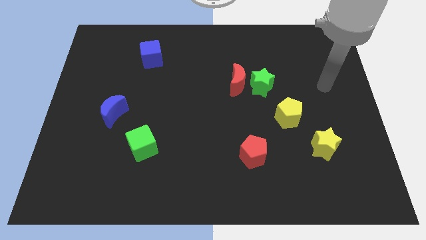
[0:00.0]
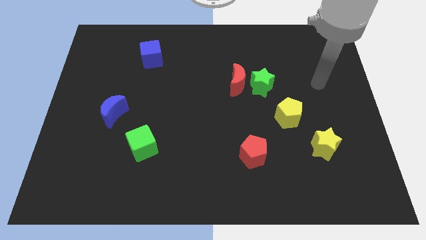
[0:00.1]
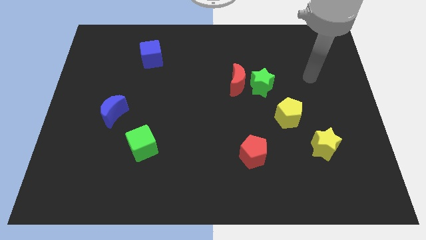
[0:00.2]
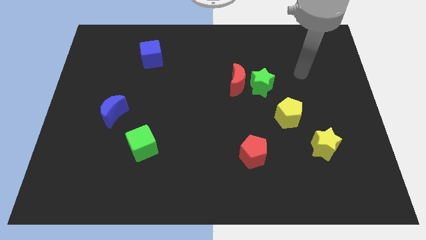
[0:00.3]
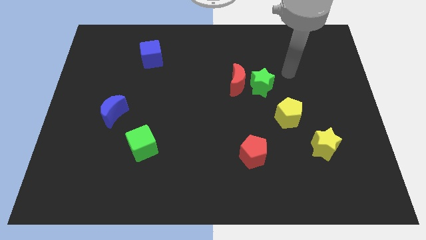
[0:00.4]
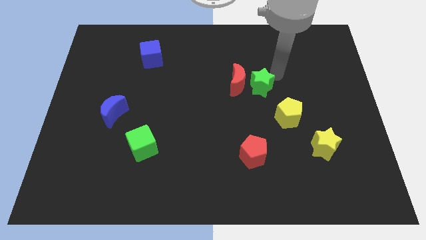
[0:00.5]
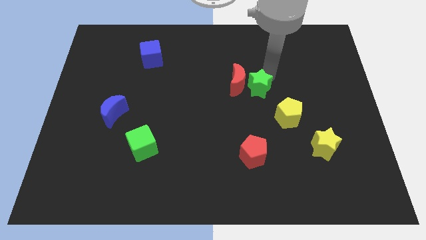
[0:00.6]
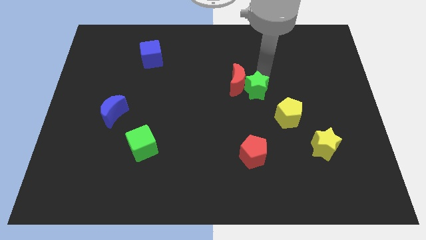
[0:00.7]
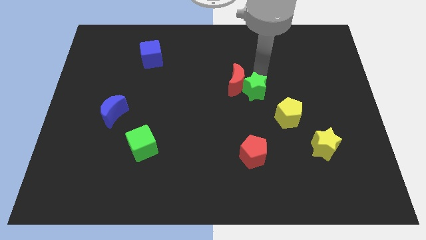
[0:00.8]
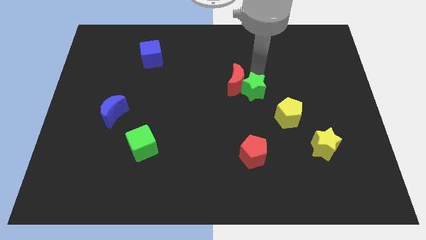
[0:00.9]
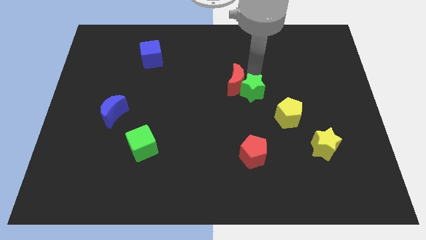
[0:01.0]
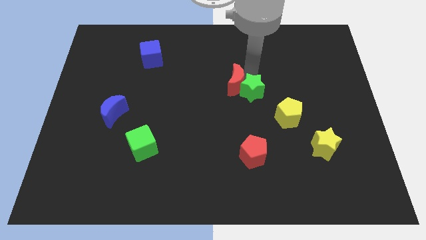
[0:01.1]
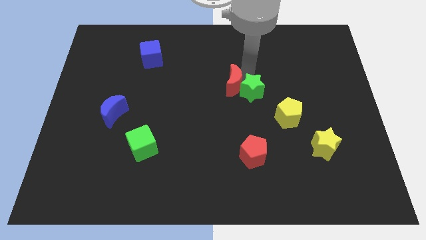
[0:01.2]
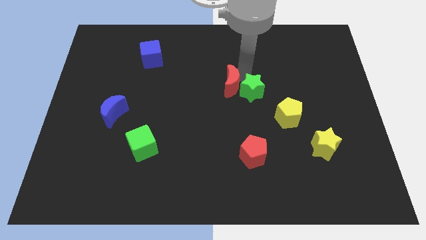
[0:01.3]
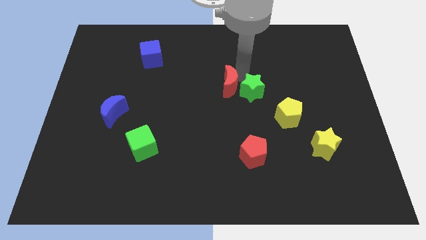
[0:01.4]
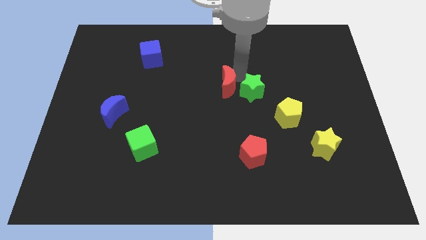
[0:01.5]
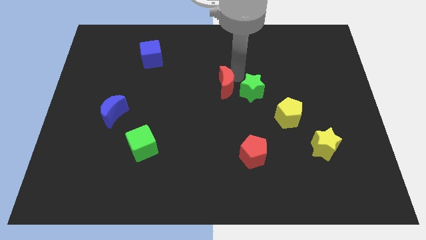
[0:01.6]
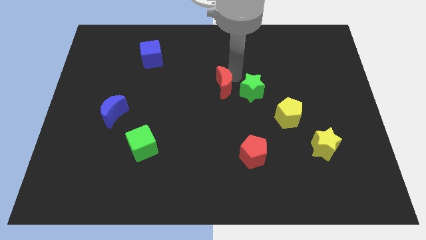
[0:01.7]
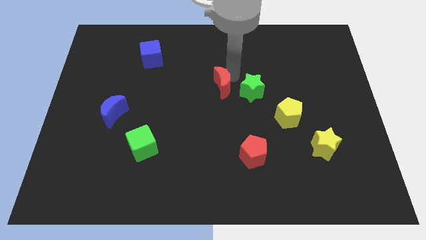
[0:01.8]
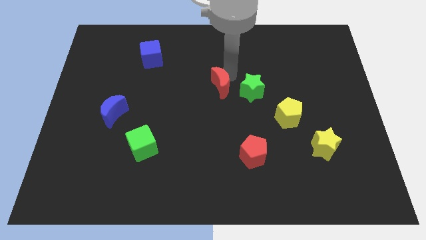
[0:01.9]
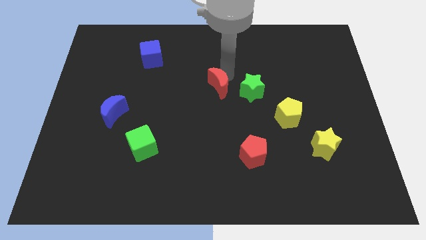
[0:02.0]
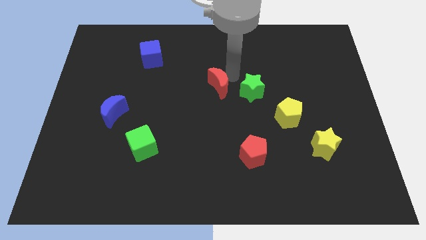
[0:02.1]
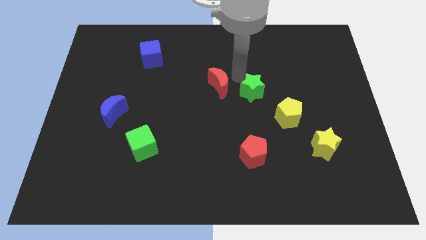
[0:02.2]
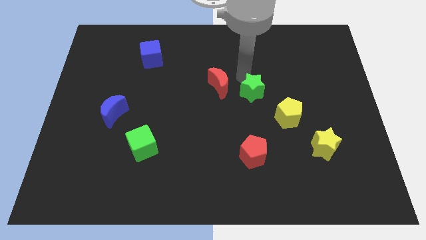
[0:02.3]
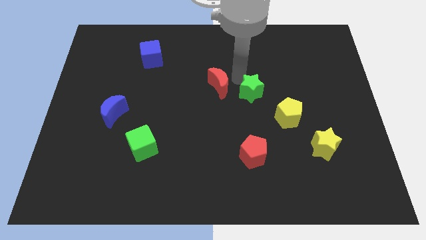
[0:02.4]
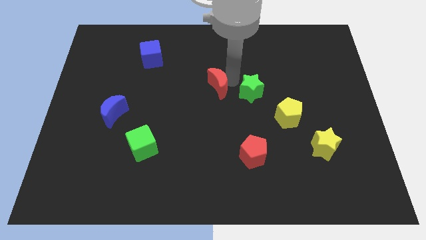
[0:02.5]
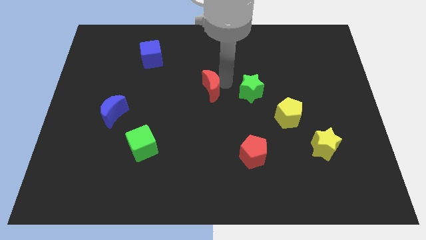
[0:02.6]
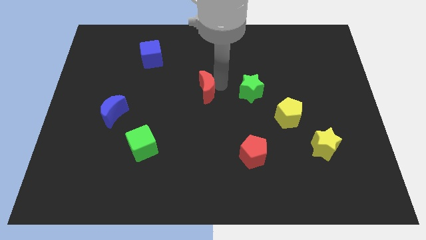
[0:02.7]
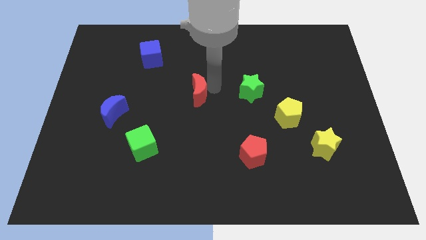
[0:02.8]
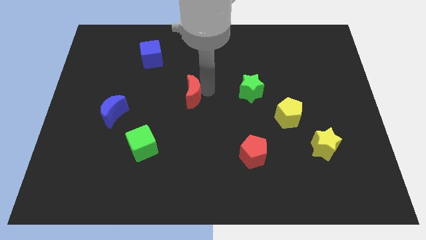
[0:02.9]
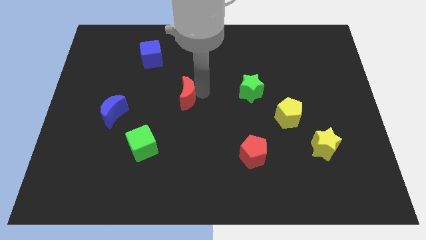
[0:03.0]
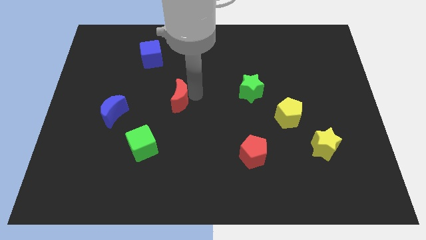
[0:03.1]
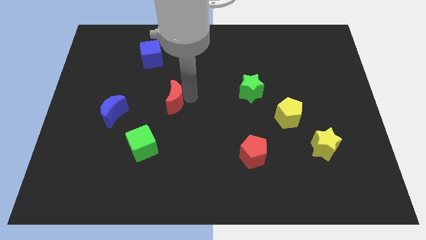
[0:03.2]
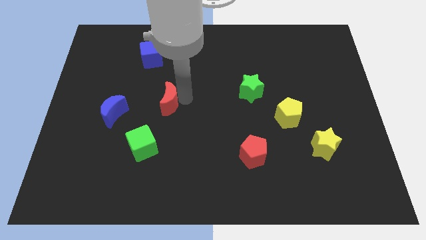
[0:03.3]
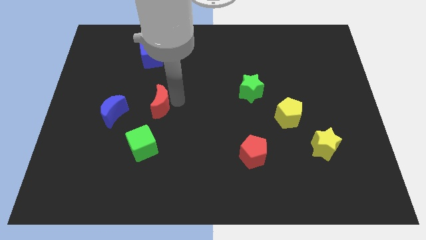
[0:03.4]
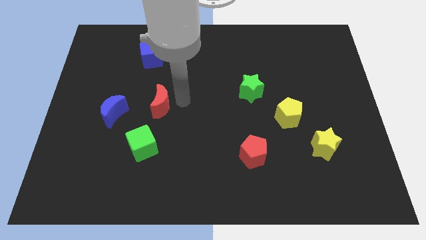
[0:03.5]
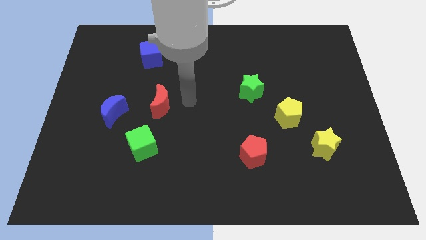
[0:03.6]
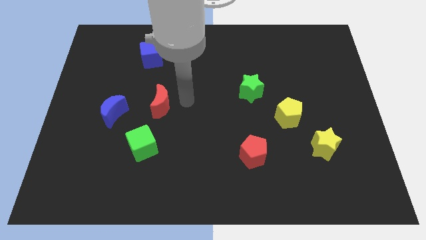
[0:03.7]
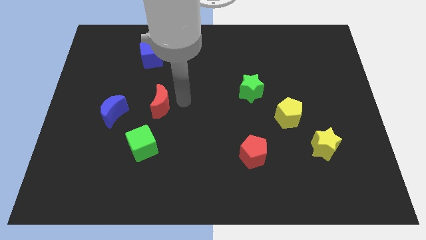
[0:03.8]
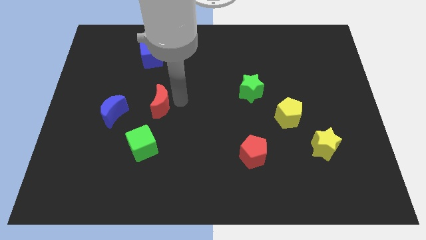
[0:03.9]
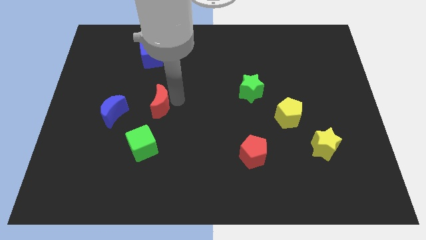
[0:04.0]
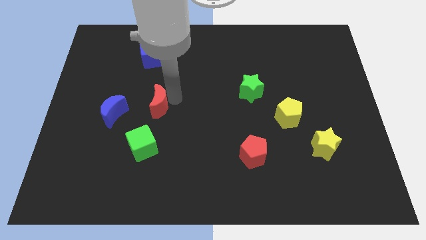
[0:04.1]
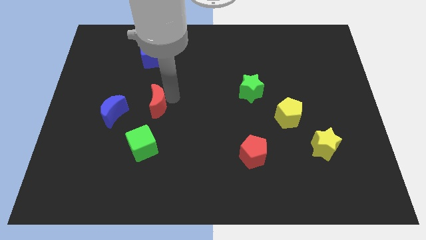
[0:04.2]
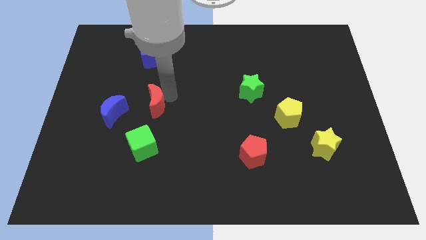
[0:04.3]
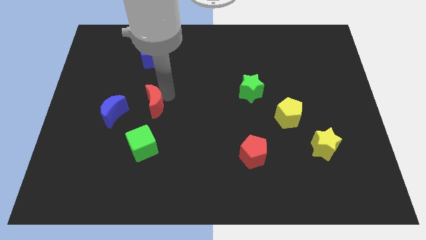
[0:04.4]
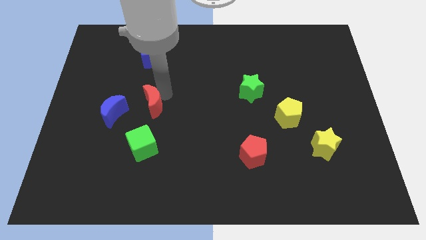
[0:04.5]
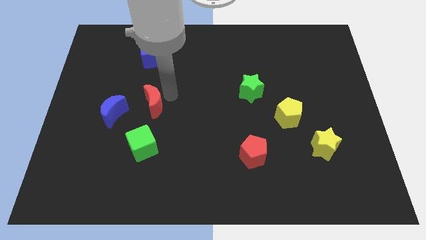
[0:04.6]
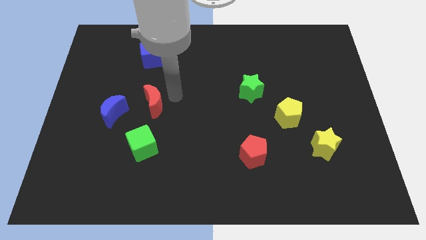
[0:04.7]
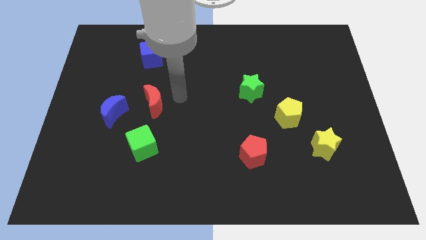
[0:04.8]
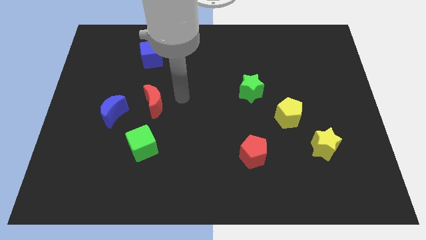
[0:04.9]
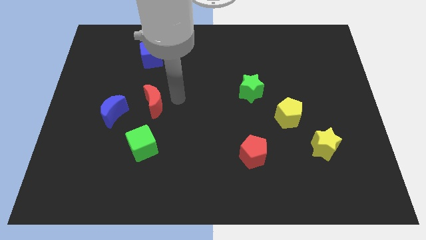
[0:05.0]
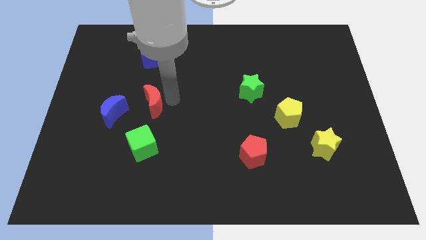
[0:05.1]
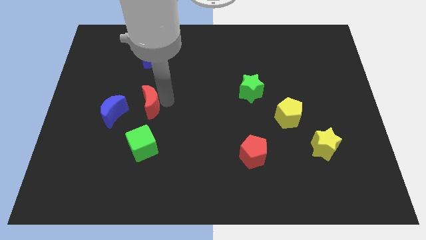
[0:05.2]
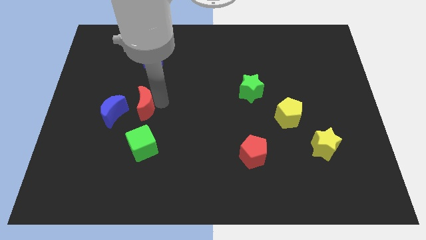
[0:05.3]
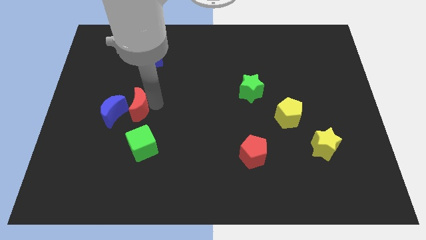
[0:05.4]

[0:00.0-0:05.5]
push the red moon towards the blue moon
